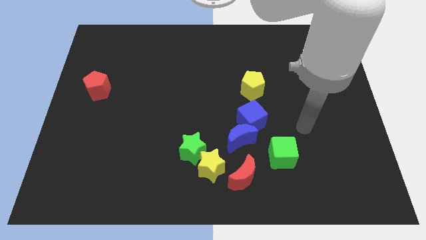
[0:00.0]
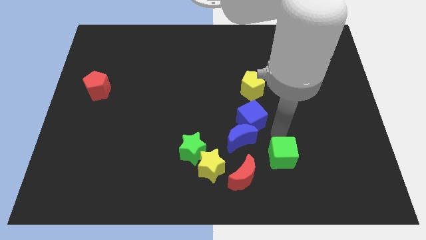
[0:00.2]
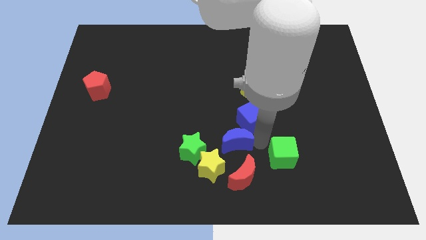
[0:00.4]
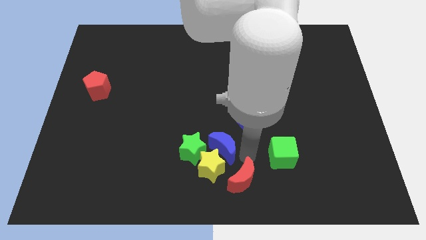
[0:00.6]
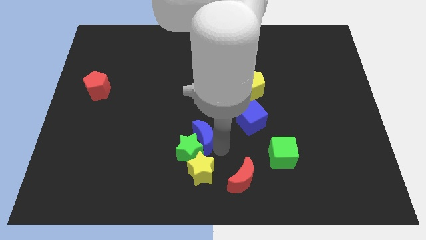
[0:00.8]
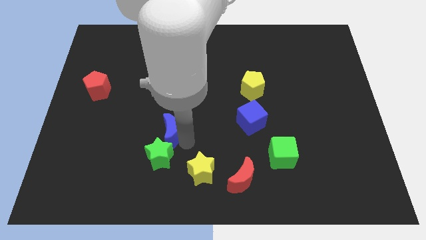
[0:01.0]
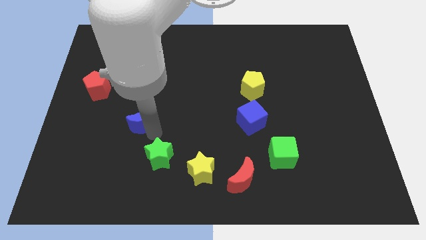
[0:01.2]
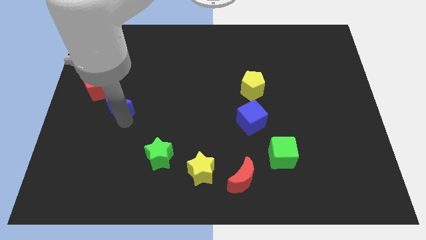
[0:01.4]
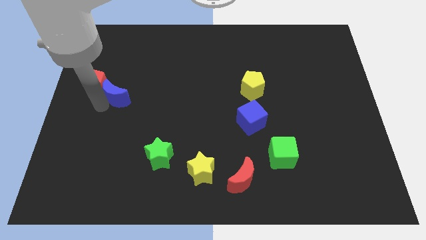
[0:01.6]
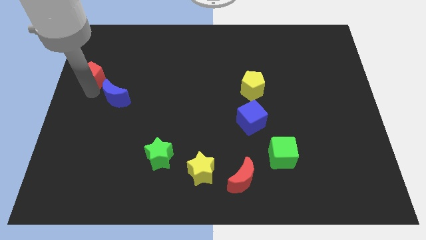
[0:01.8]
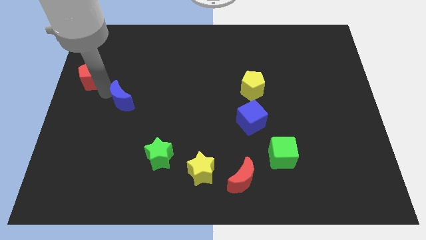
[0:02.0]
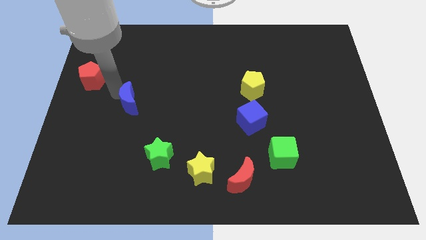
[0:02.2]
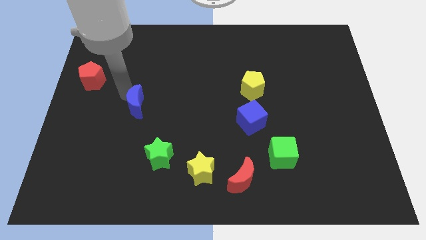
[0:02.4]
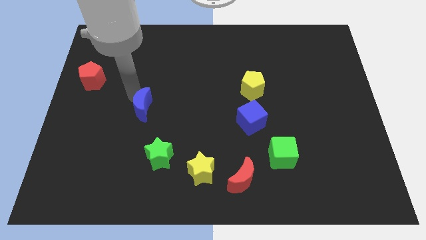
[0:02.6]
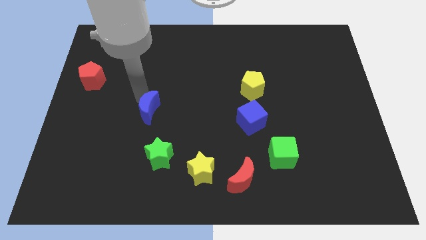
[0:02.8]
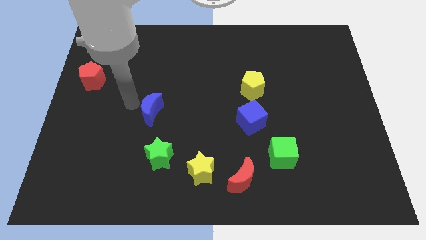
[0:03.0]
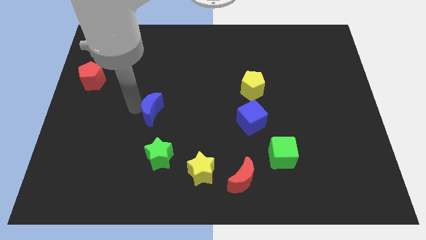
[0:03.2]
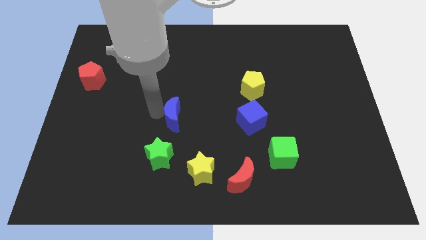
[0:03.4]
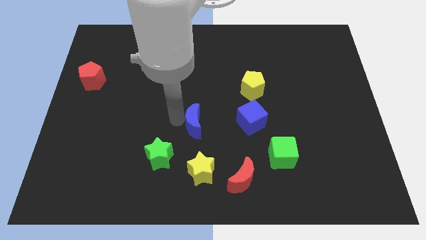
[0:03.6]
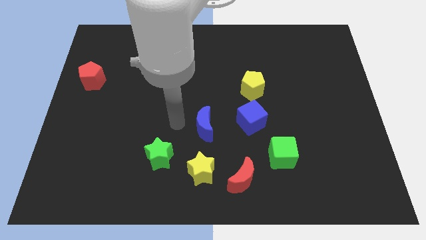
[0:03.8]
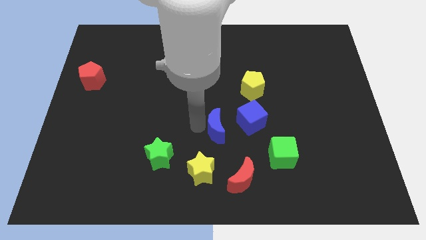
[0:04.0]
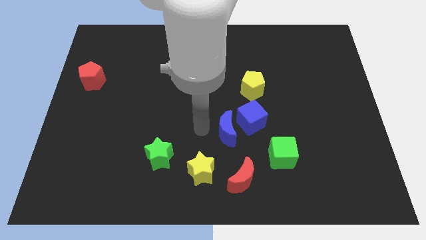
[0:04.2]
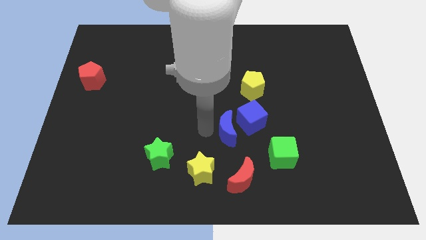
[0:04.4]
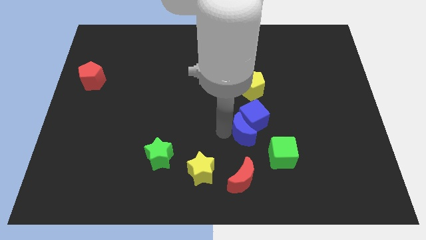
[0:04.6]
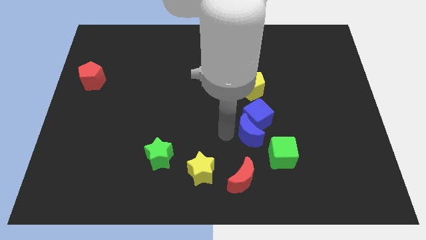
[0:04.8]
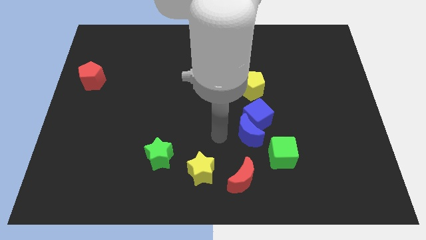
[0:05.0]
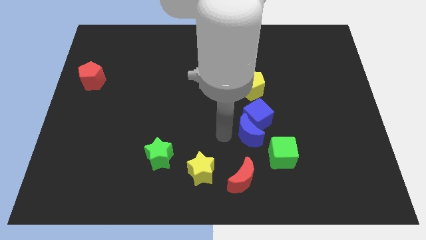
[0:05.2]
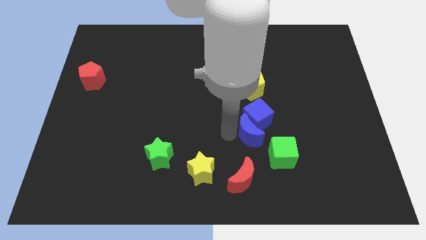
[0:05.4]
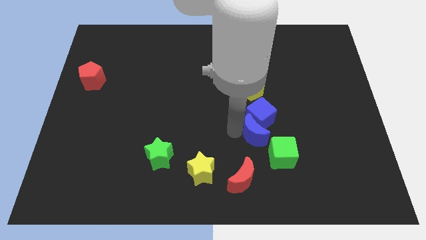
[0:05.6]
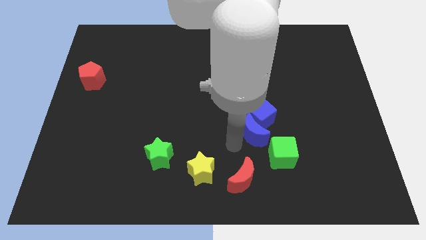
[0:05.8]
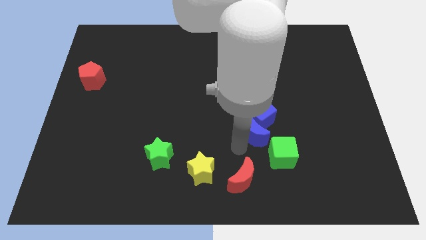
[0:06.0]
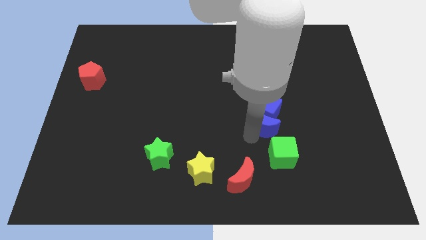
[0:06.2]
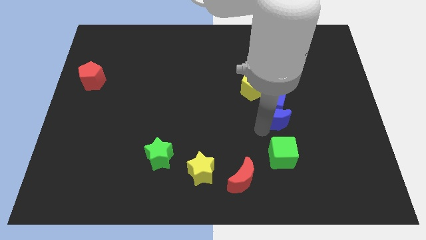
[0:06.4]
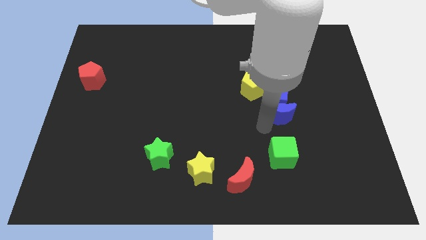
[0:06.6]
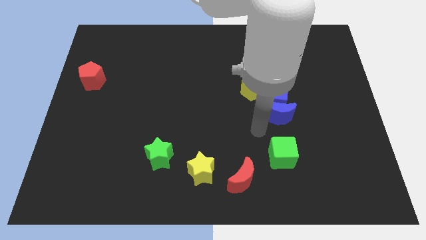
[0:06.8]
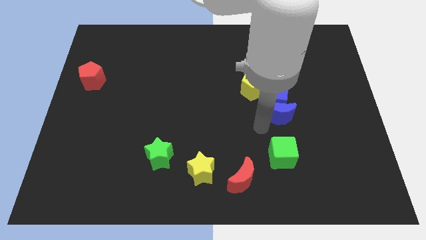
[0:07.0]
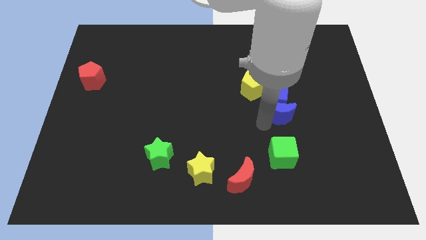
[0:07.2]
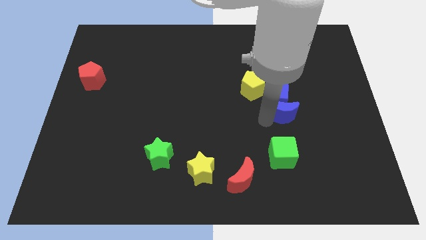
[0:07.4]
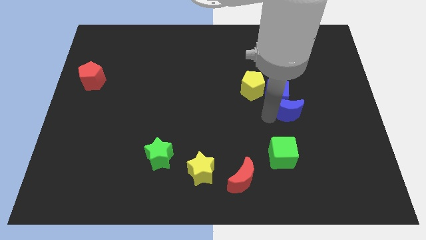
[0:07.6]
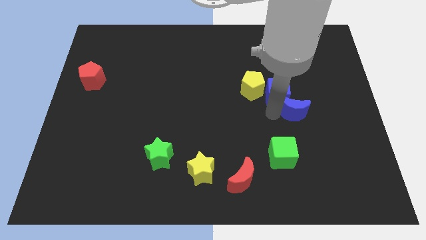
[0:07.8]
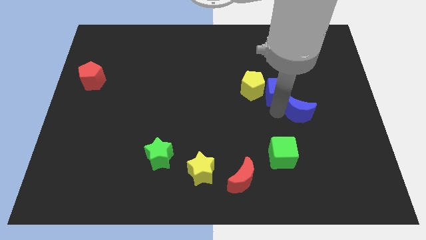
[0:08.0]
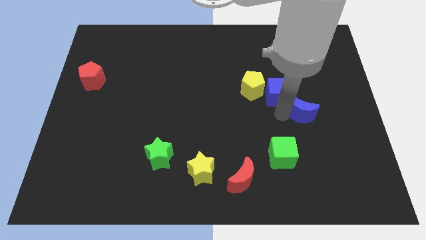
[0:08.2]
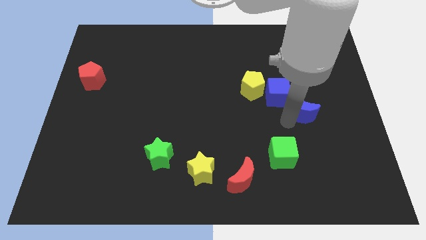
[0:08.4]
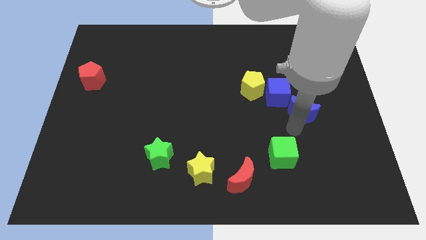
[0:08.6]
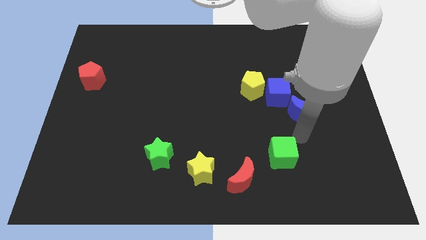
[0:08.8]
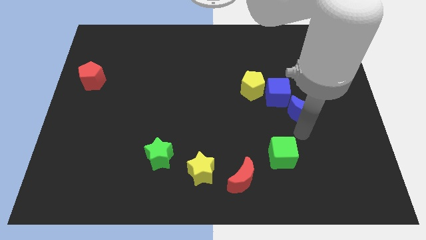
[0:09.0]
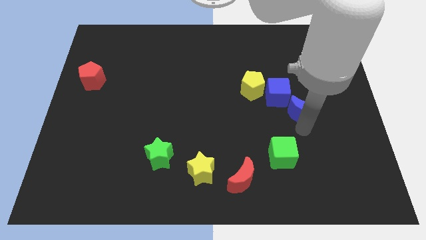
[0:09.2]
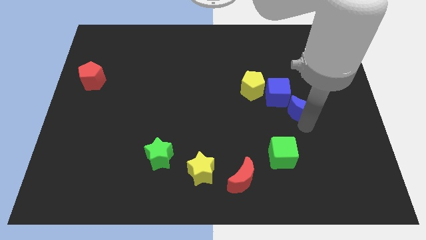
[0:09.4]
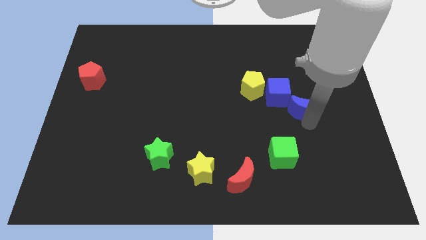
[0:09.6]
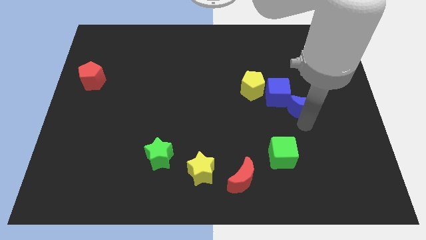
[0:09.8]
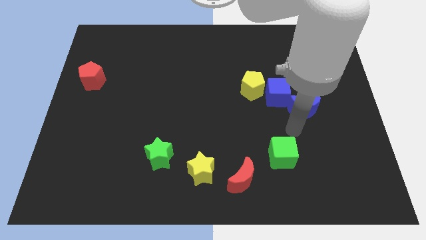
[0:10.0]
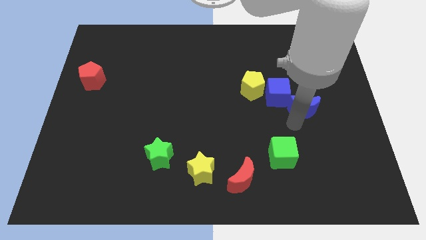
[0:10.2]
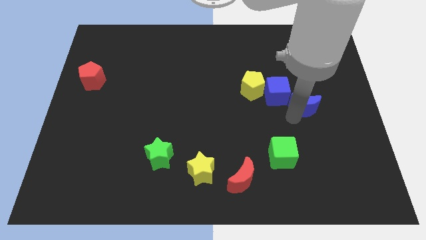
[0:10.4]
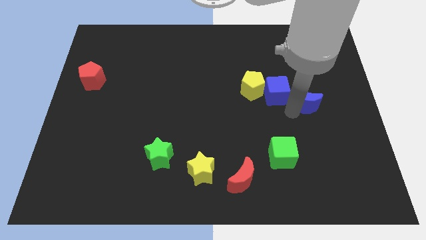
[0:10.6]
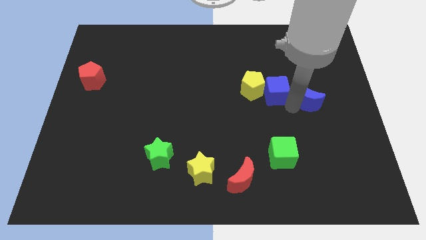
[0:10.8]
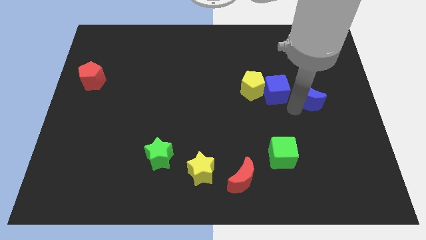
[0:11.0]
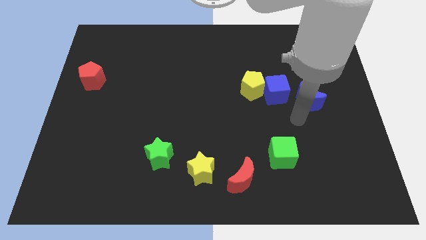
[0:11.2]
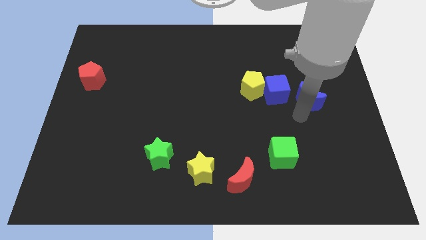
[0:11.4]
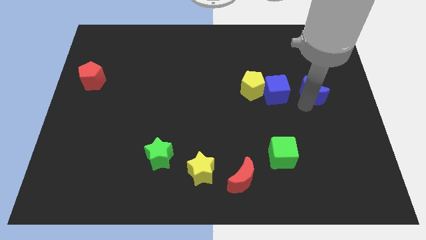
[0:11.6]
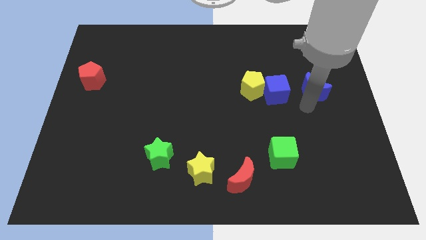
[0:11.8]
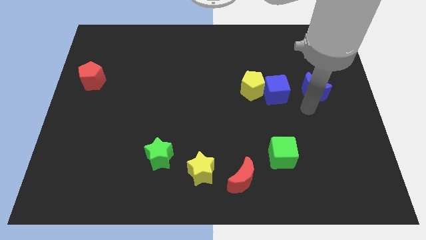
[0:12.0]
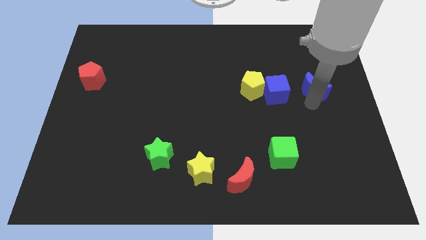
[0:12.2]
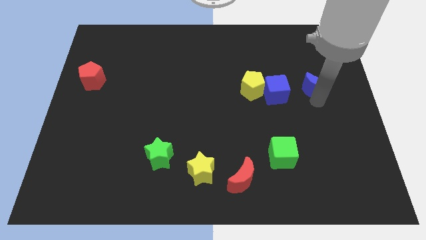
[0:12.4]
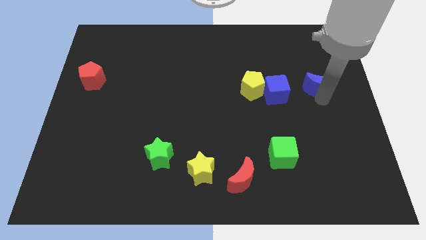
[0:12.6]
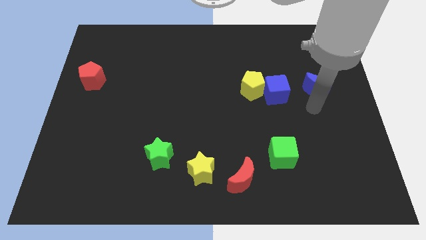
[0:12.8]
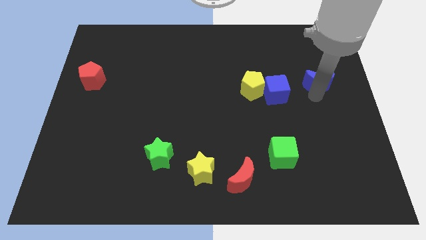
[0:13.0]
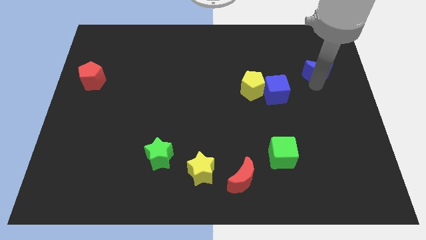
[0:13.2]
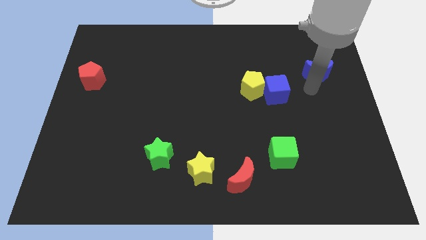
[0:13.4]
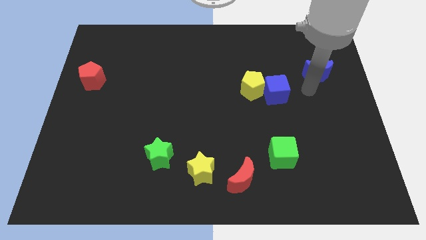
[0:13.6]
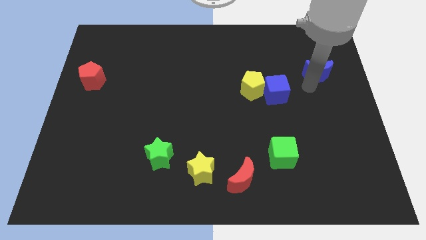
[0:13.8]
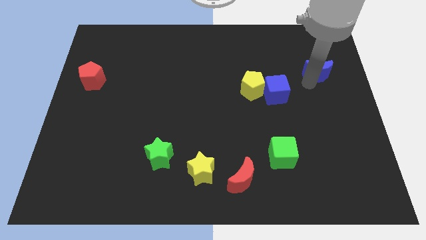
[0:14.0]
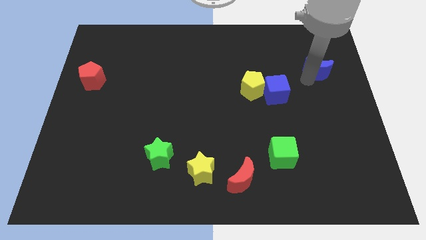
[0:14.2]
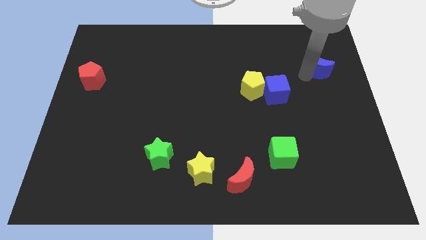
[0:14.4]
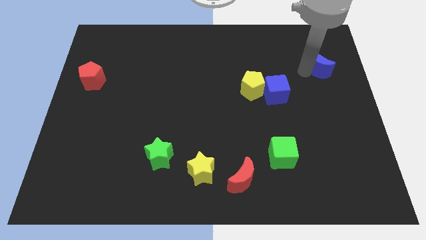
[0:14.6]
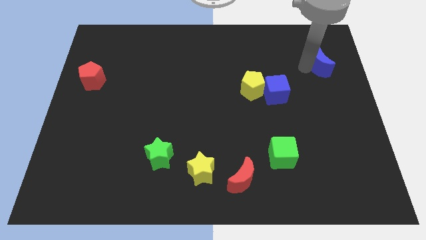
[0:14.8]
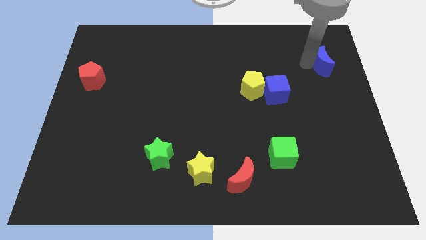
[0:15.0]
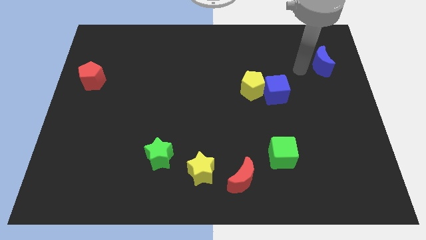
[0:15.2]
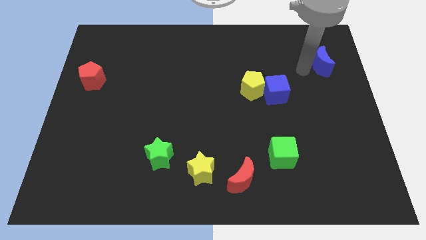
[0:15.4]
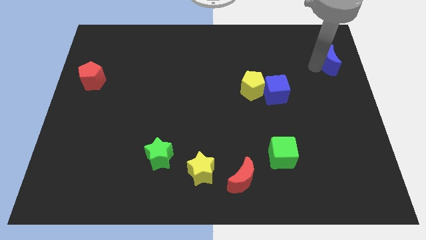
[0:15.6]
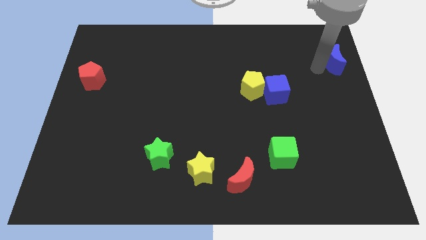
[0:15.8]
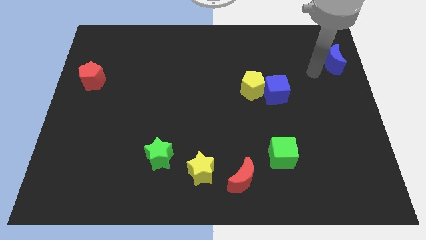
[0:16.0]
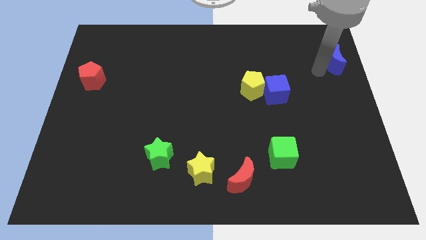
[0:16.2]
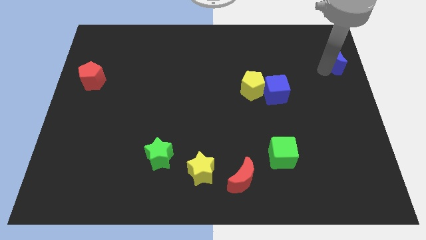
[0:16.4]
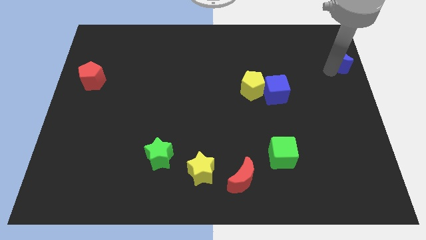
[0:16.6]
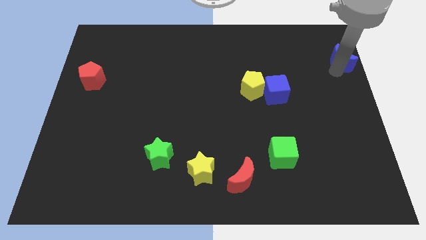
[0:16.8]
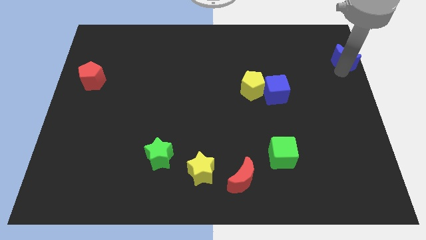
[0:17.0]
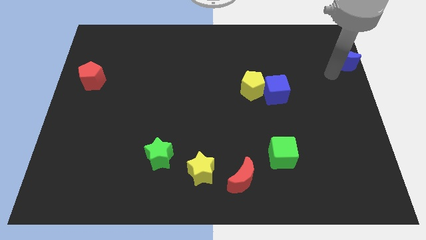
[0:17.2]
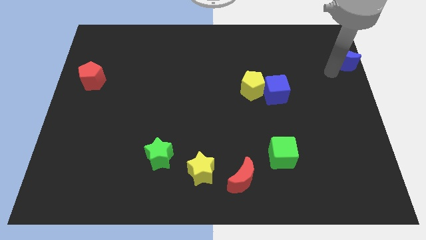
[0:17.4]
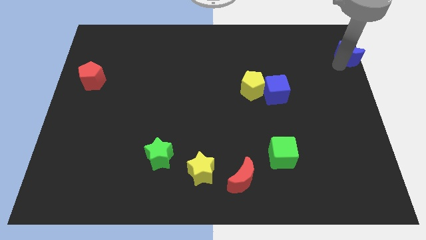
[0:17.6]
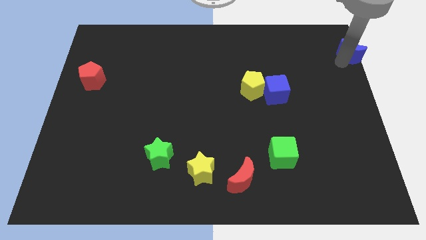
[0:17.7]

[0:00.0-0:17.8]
push the blue moon to the top right corner
